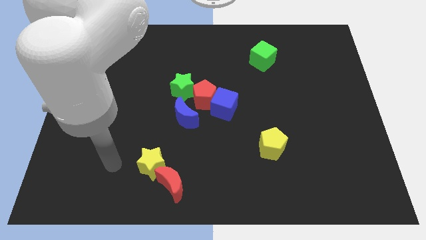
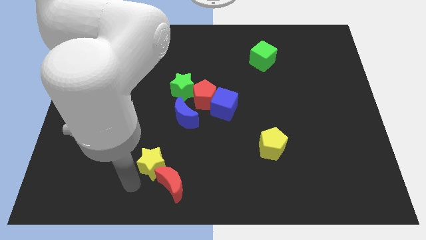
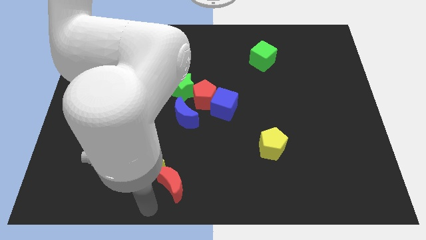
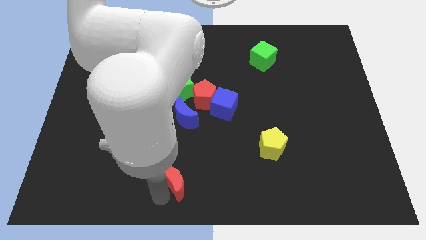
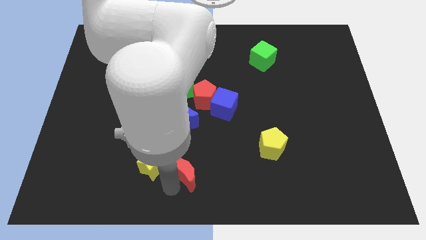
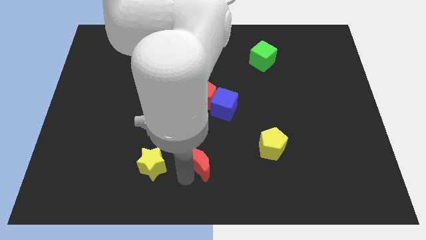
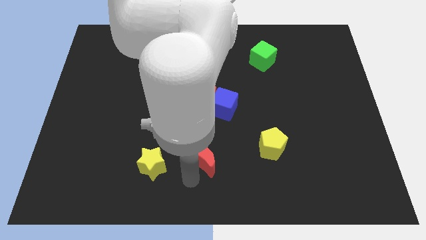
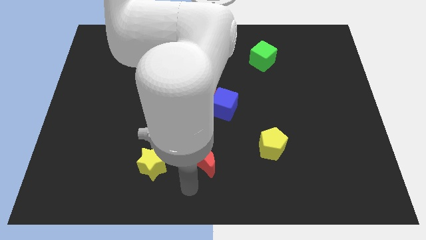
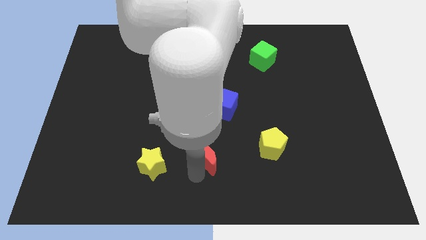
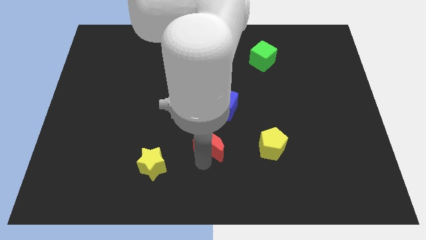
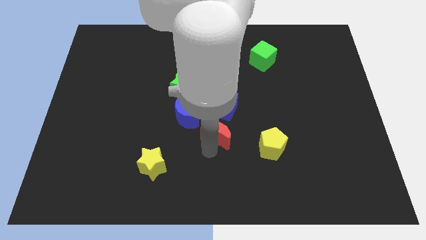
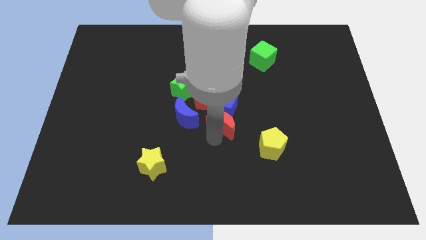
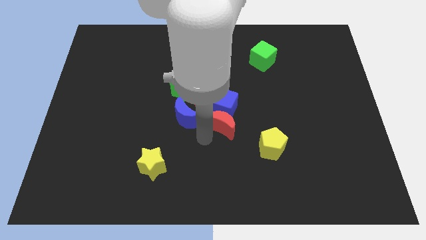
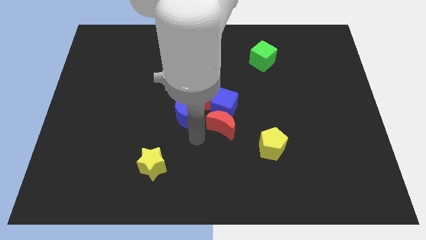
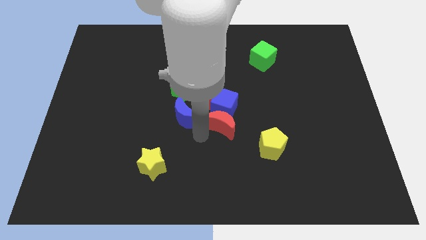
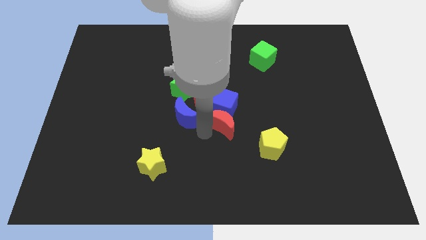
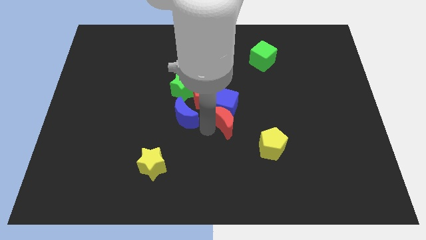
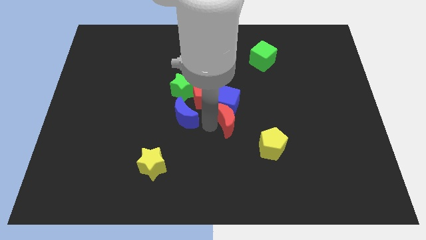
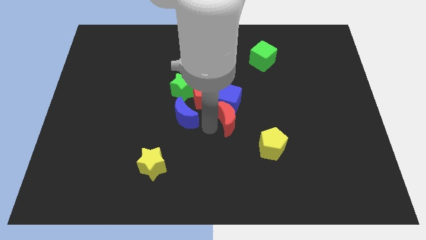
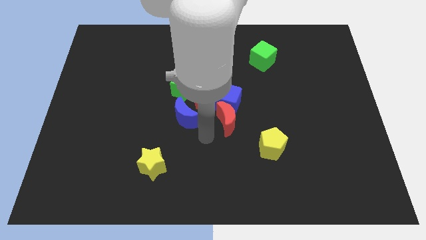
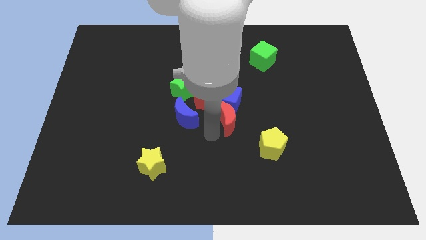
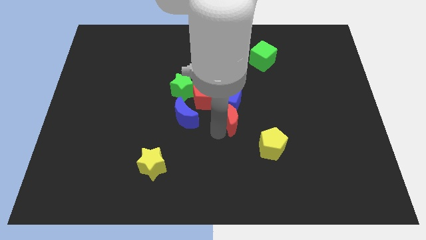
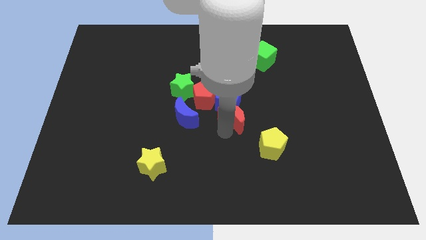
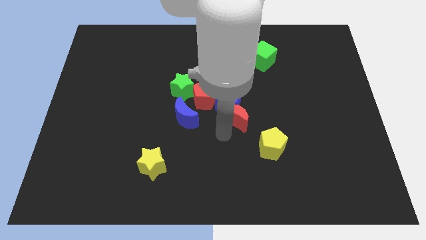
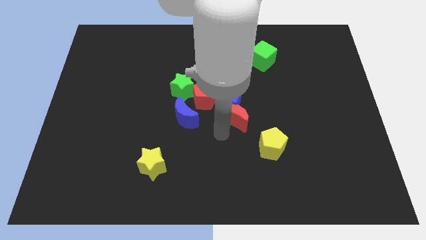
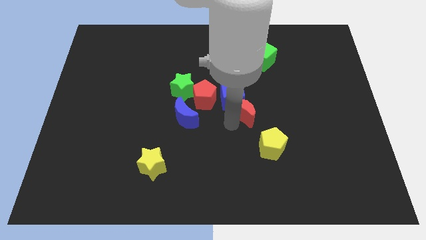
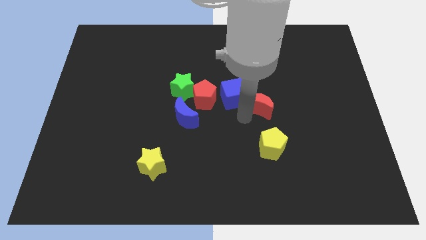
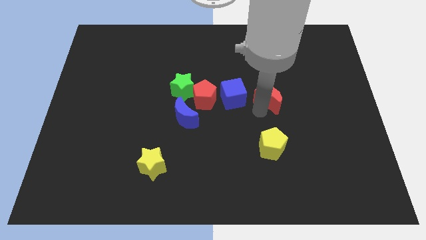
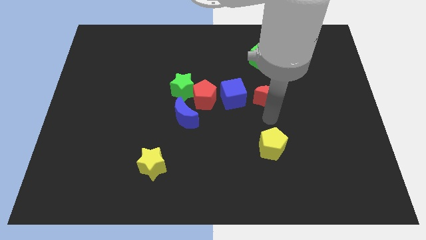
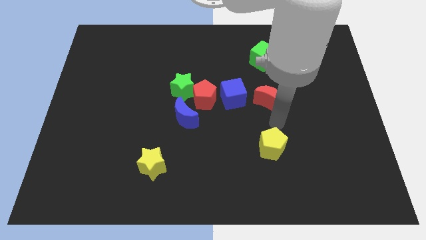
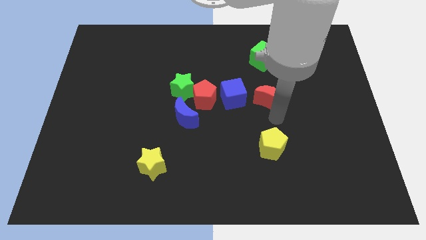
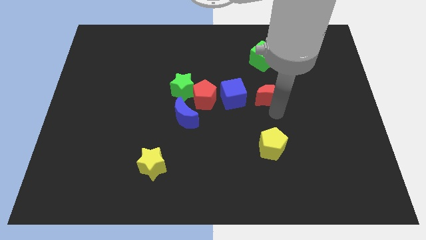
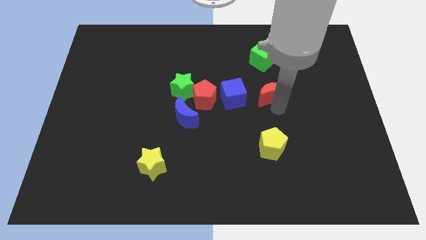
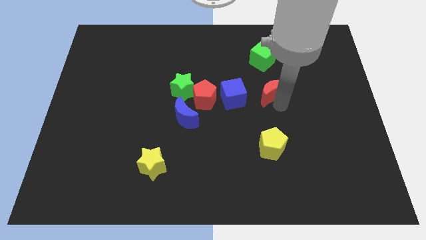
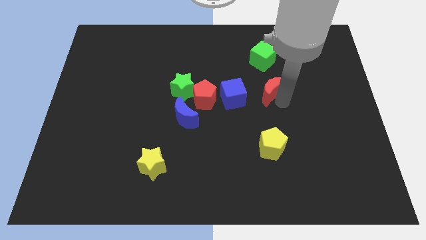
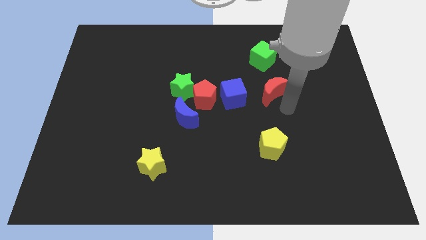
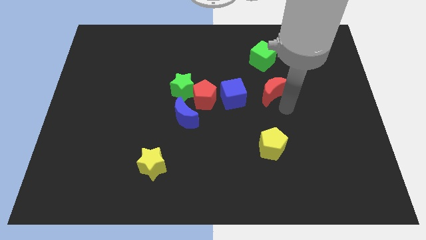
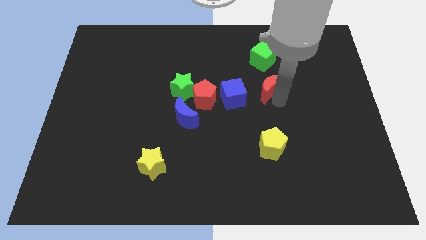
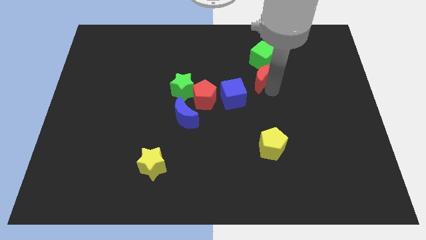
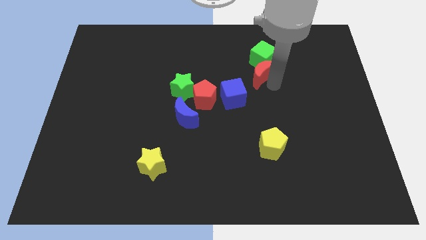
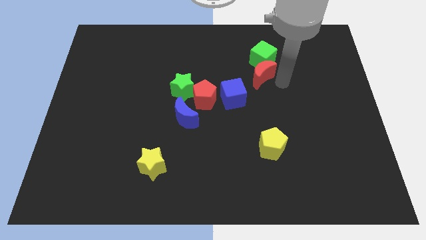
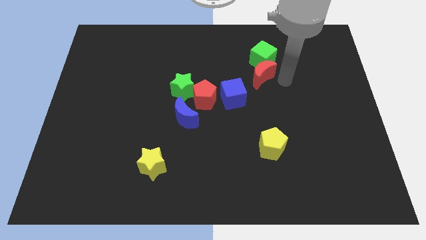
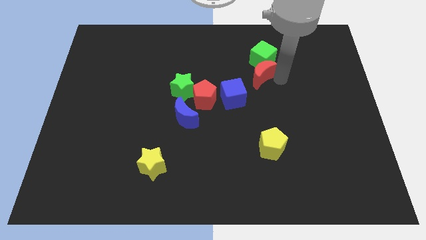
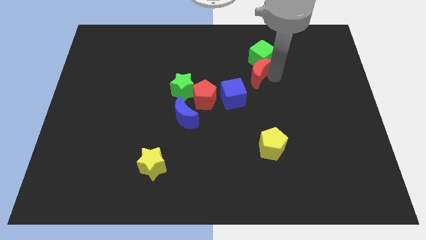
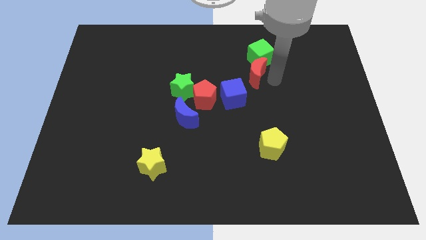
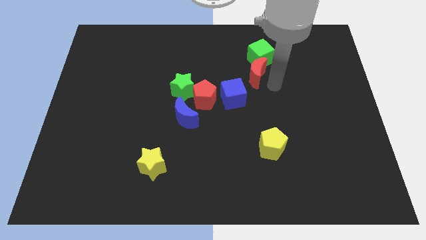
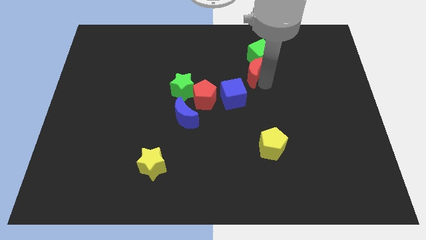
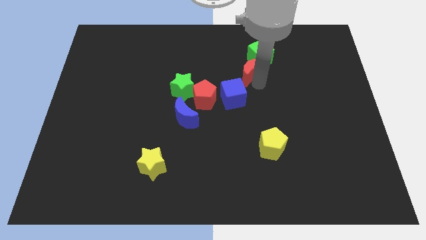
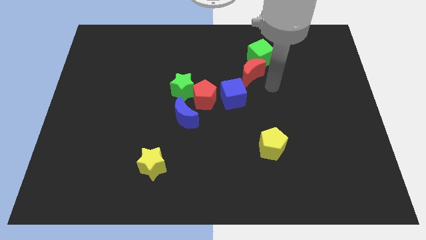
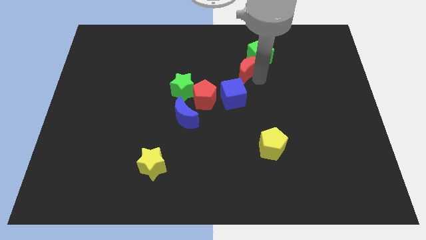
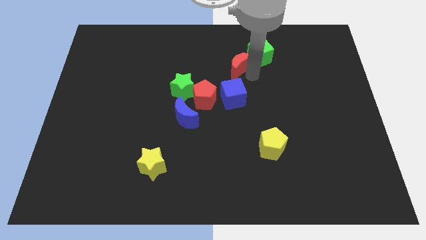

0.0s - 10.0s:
move the red moon just left of the green cube

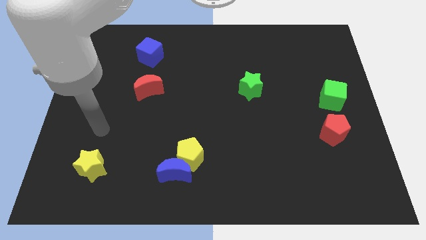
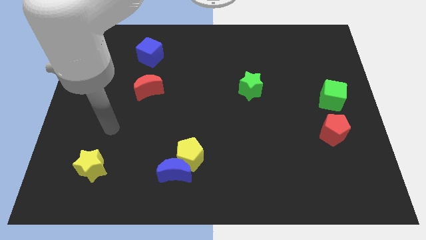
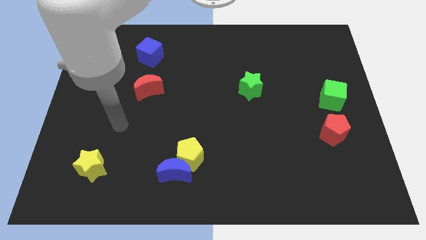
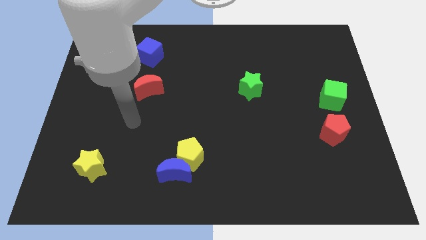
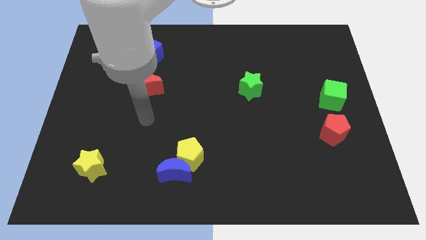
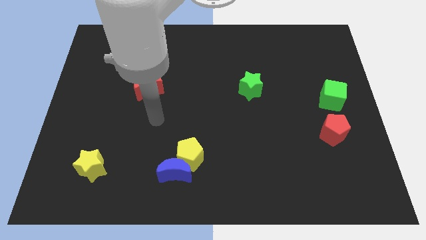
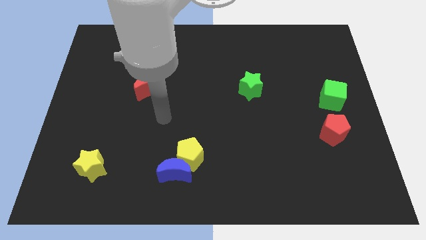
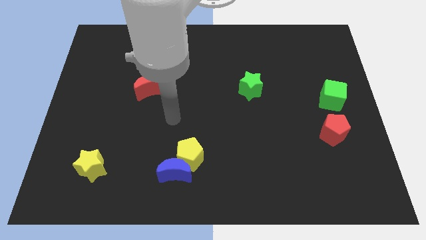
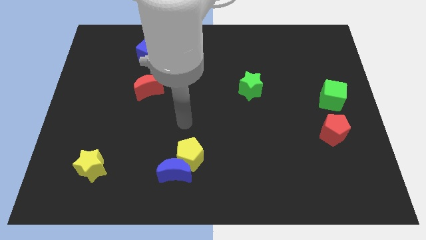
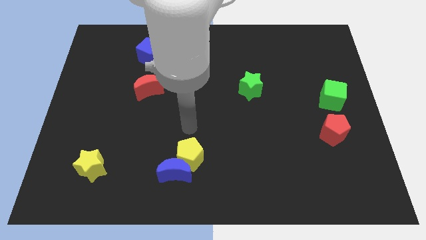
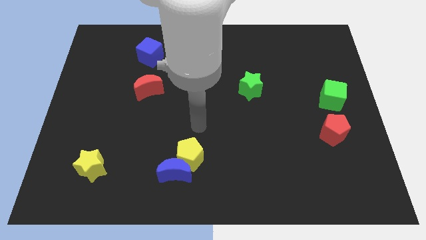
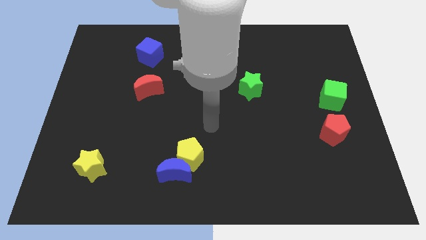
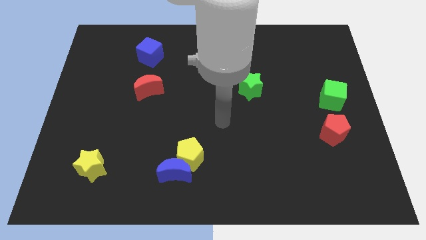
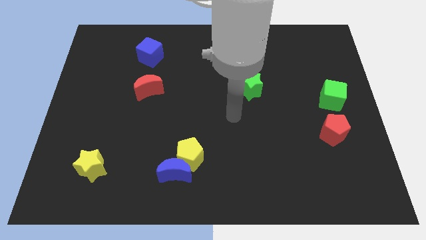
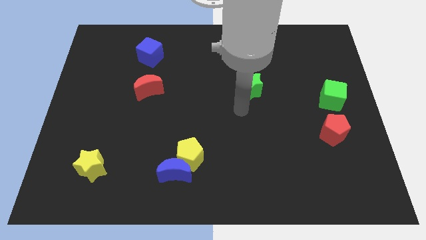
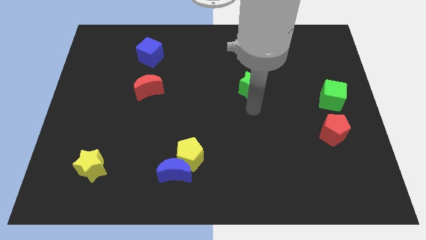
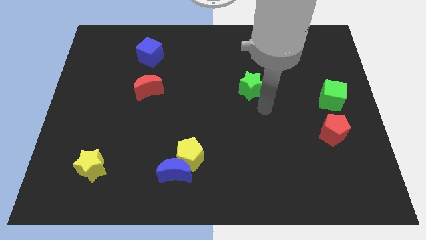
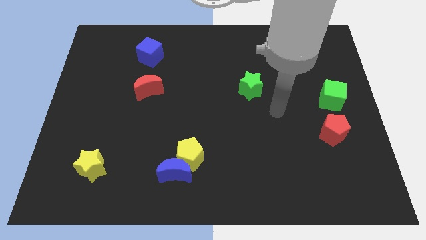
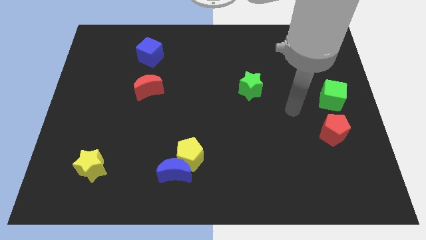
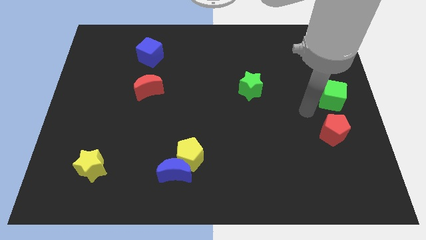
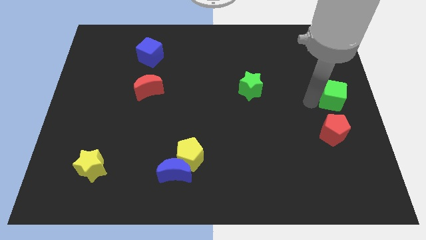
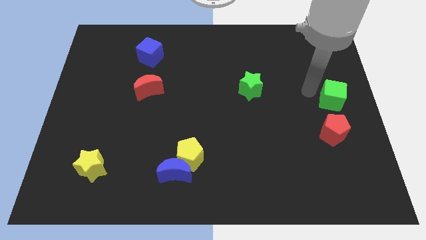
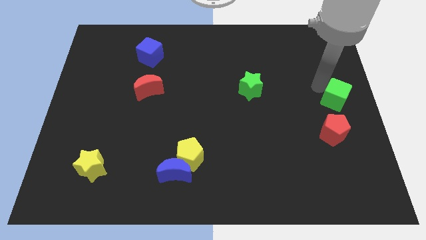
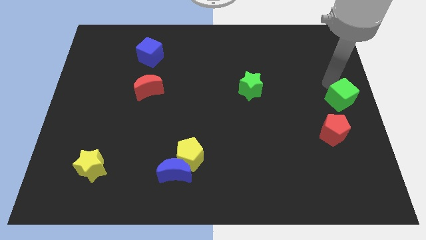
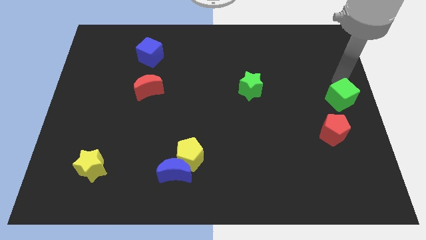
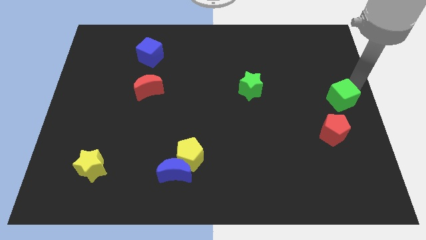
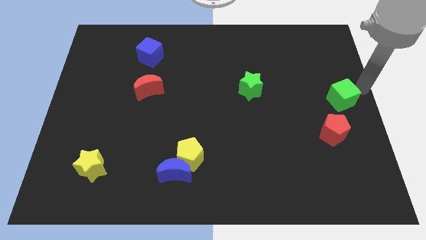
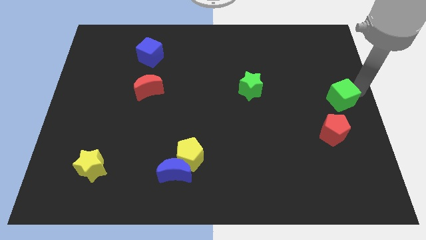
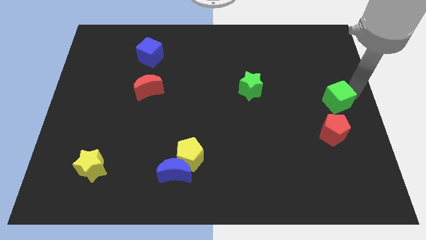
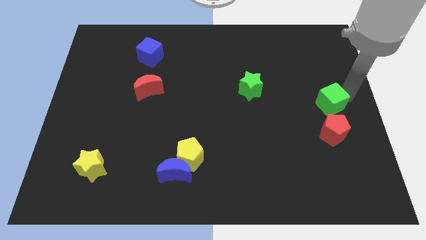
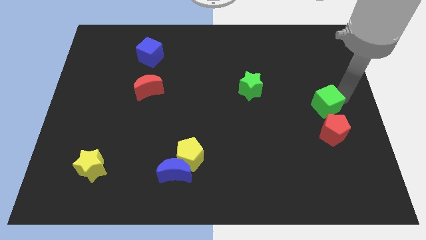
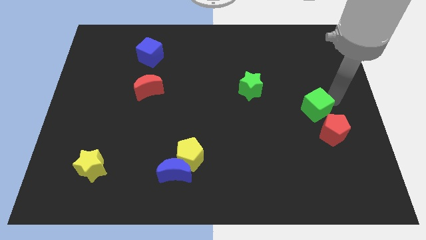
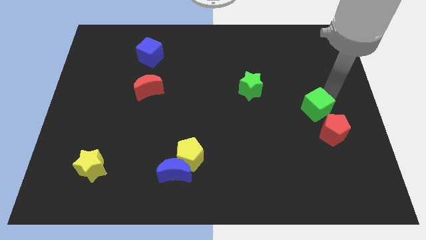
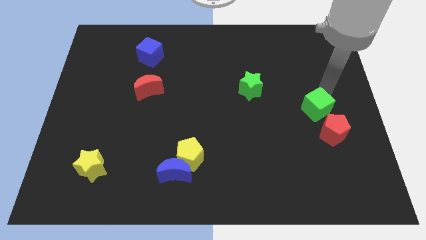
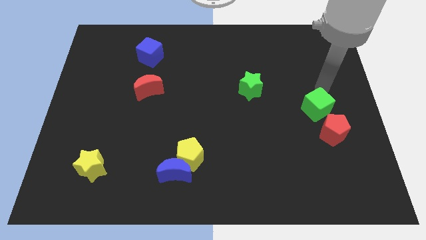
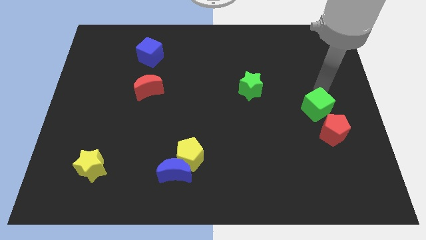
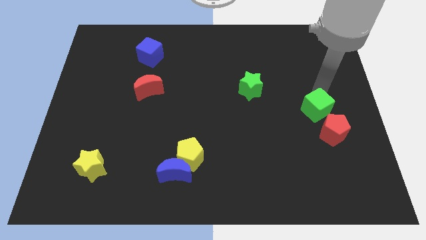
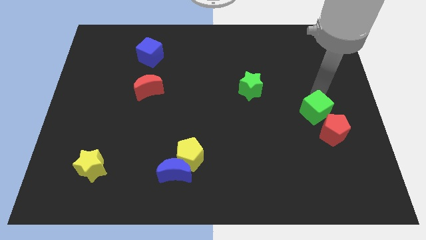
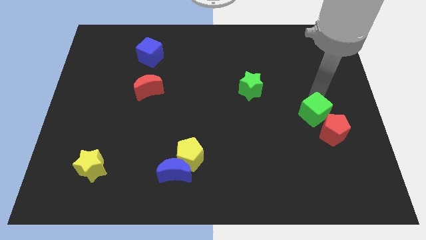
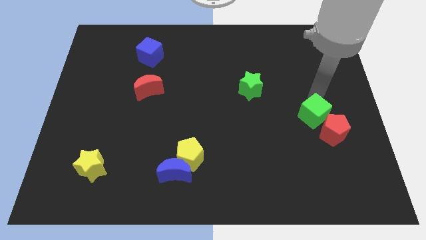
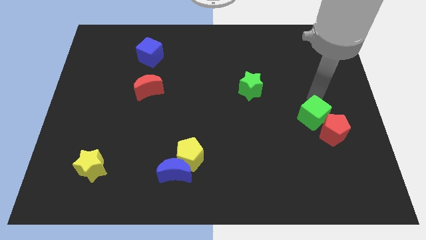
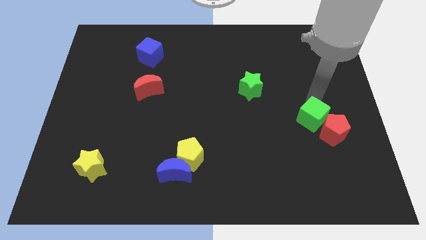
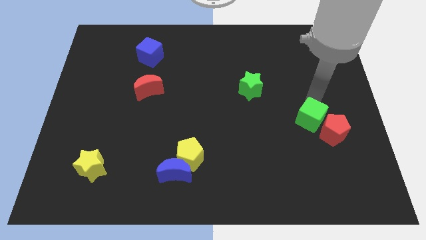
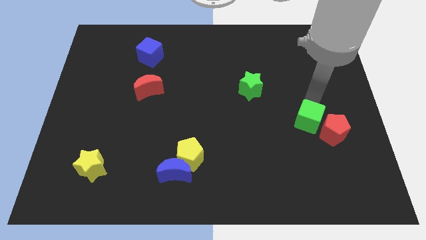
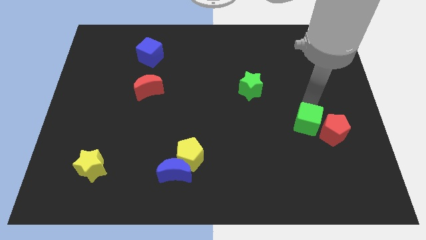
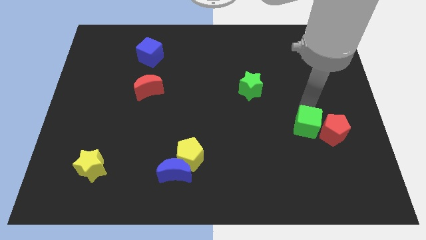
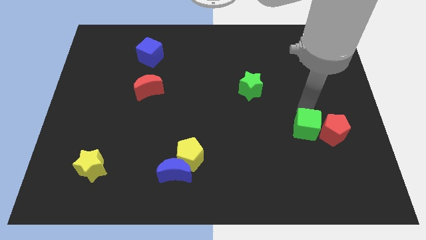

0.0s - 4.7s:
push the green cube diagonally down and to the left of the red pentagon
